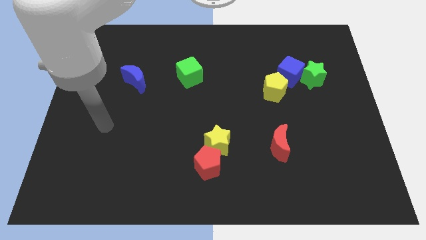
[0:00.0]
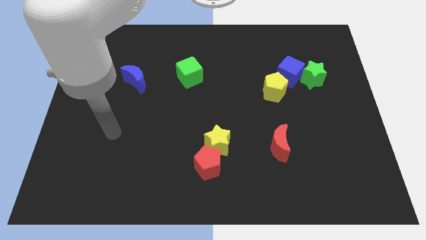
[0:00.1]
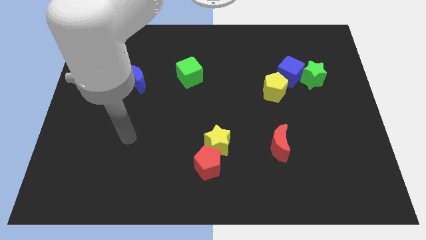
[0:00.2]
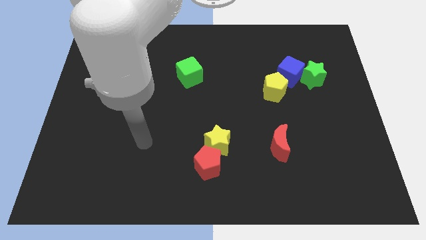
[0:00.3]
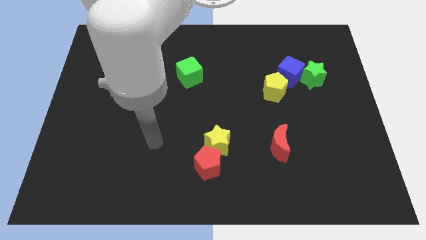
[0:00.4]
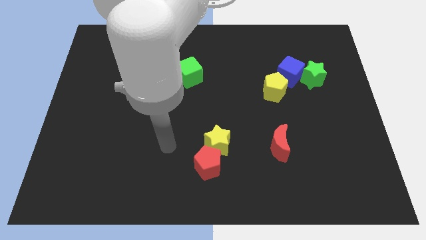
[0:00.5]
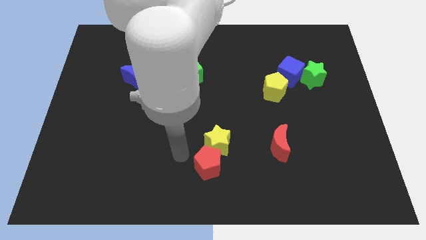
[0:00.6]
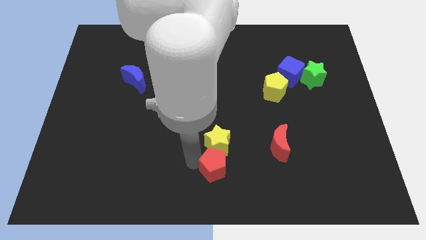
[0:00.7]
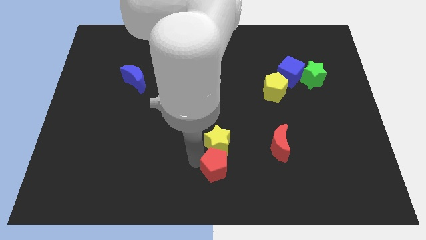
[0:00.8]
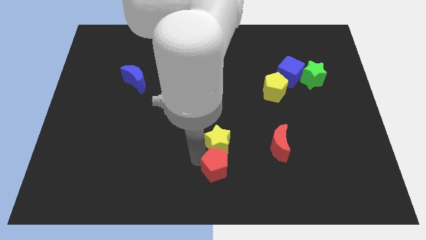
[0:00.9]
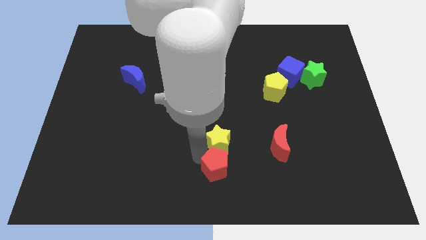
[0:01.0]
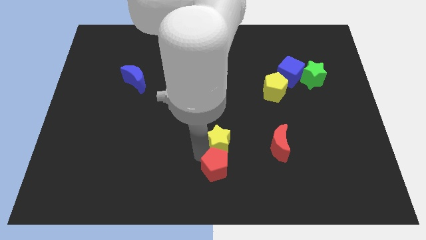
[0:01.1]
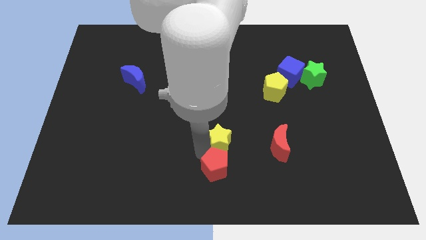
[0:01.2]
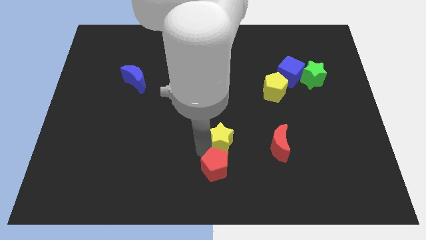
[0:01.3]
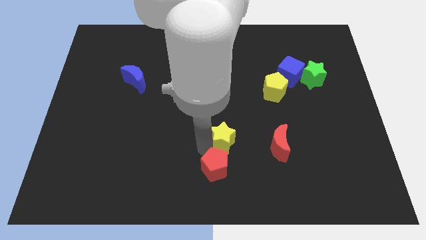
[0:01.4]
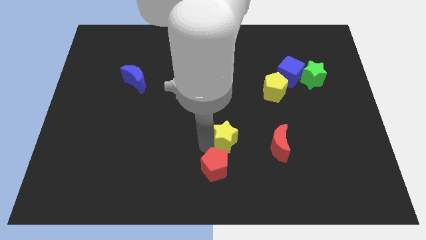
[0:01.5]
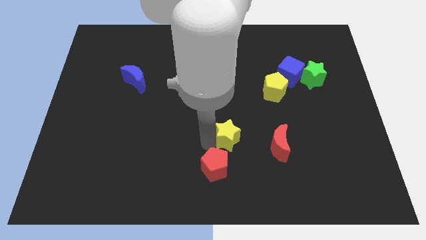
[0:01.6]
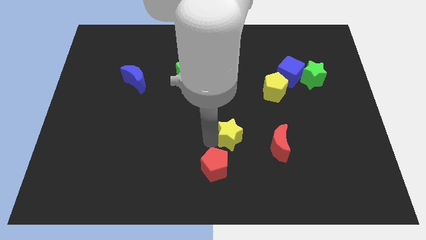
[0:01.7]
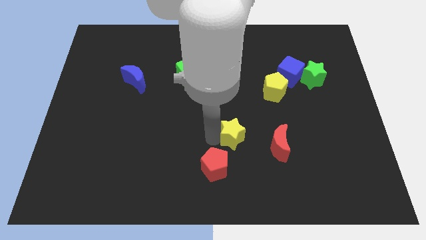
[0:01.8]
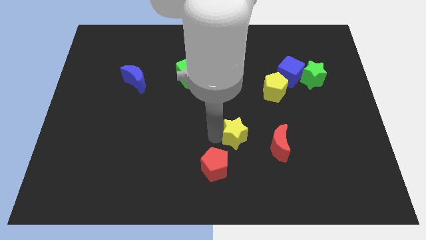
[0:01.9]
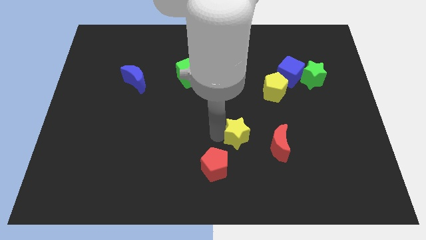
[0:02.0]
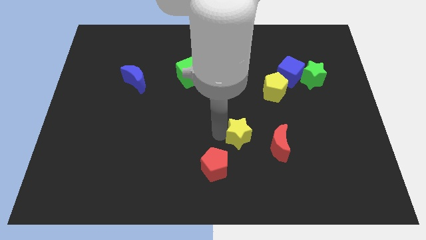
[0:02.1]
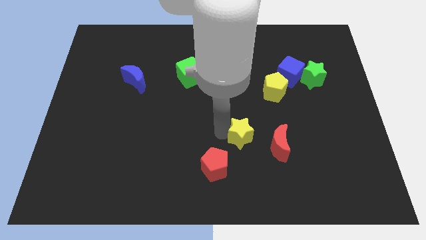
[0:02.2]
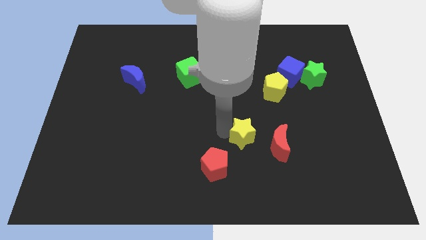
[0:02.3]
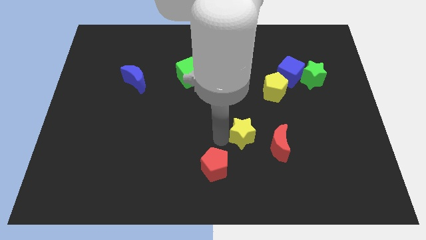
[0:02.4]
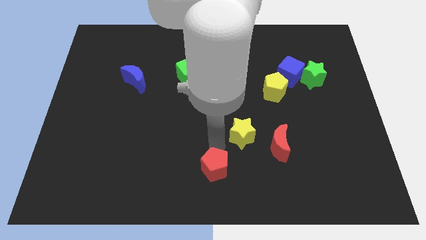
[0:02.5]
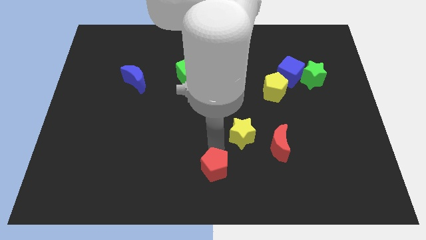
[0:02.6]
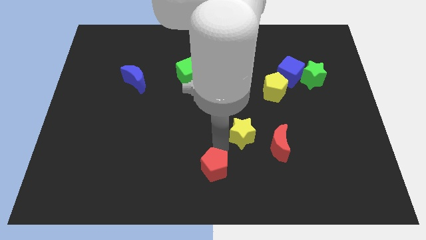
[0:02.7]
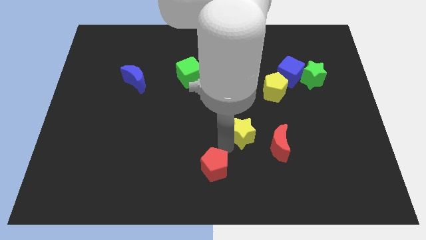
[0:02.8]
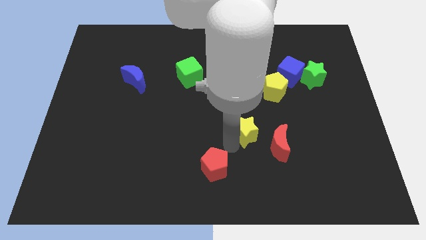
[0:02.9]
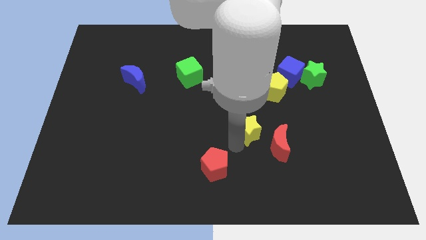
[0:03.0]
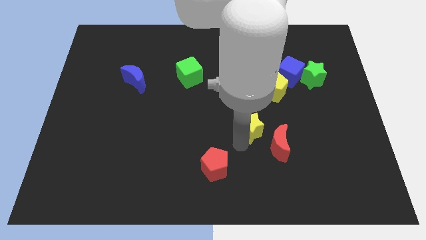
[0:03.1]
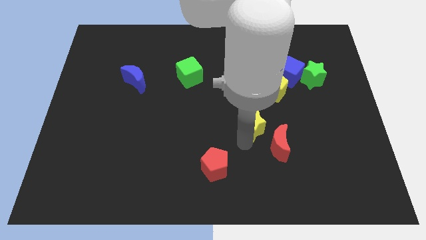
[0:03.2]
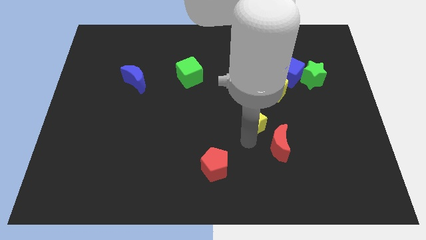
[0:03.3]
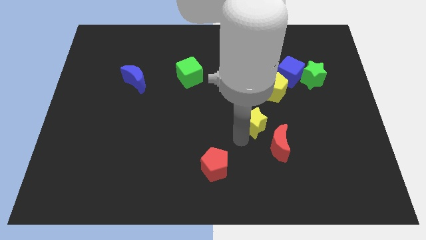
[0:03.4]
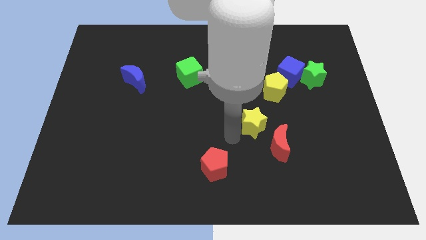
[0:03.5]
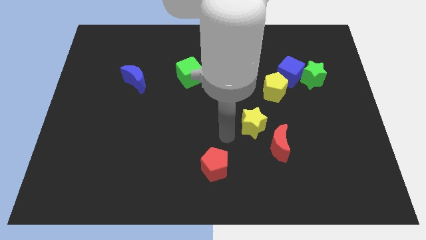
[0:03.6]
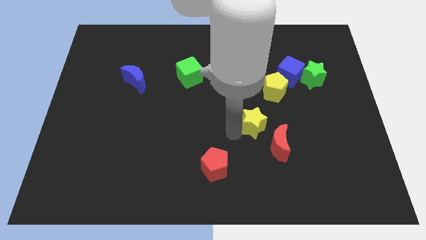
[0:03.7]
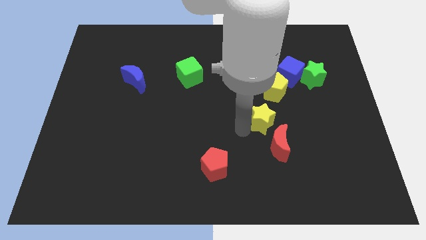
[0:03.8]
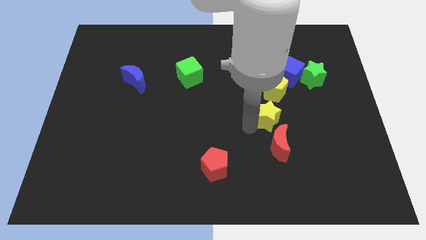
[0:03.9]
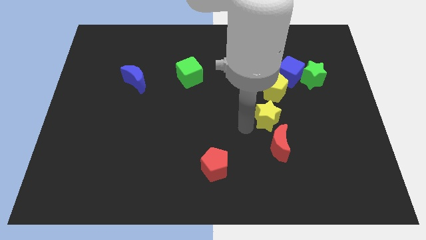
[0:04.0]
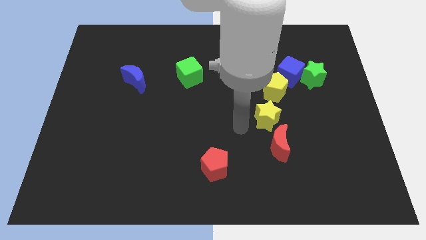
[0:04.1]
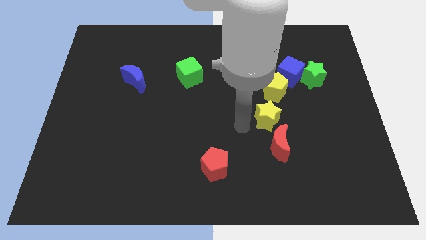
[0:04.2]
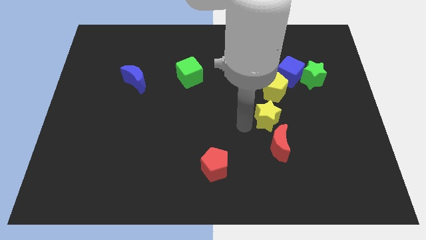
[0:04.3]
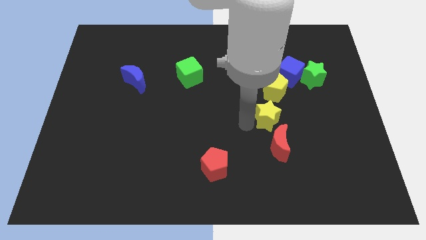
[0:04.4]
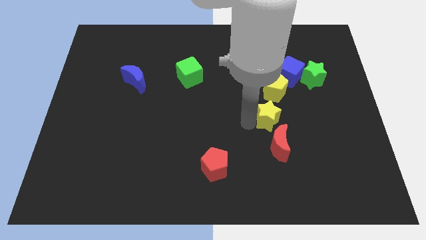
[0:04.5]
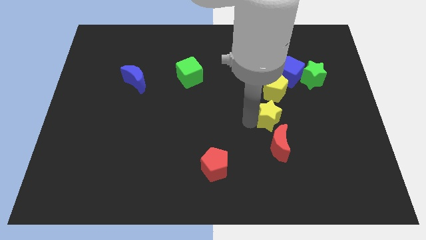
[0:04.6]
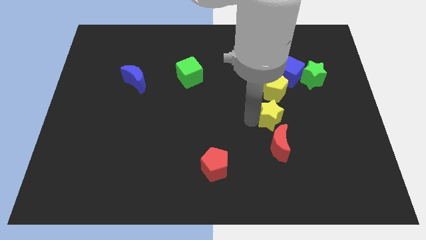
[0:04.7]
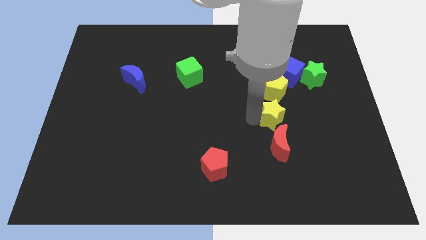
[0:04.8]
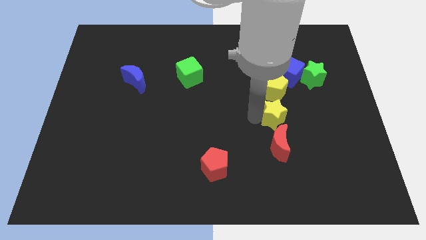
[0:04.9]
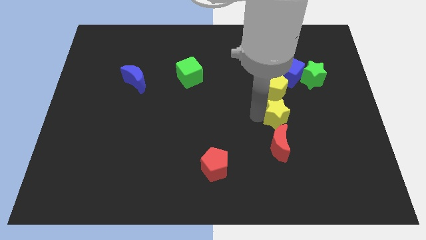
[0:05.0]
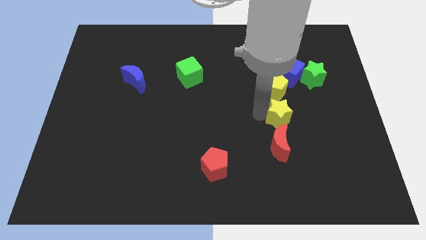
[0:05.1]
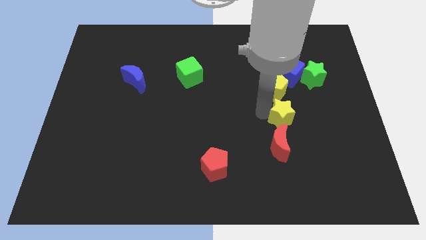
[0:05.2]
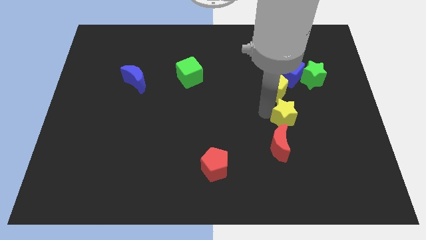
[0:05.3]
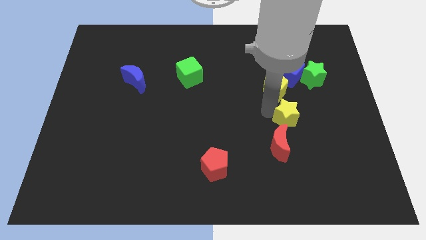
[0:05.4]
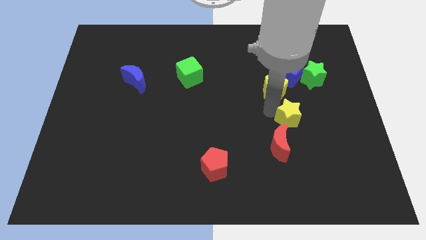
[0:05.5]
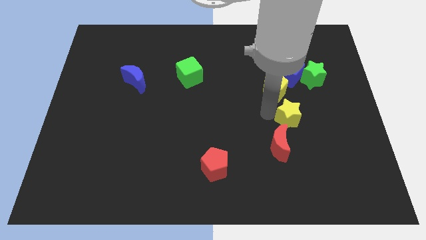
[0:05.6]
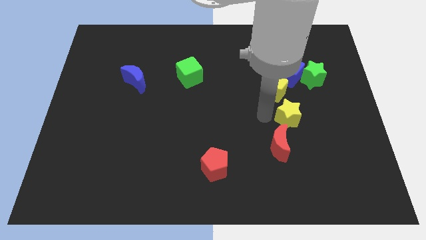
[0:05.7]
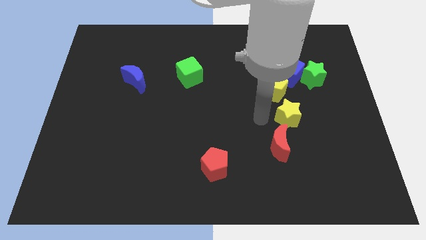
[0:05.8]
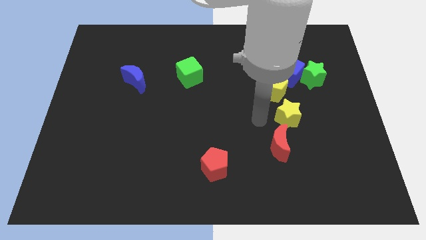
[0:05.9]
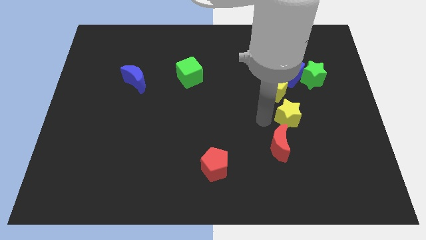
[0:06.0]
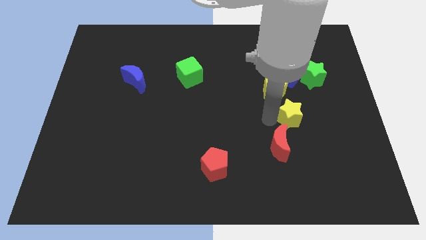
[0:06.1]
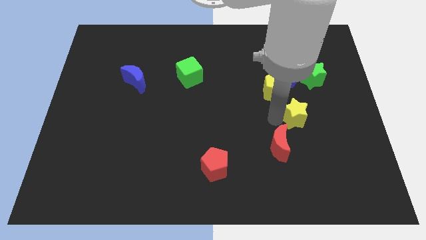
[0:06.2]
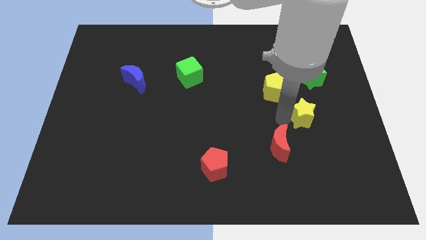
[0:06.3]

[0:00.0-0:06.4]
push the yellow star below the green star

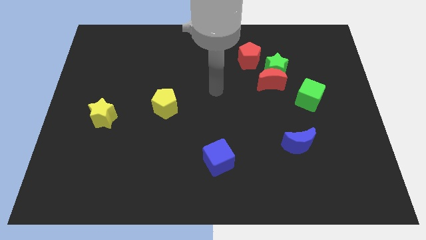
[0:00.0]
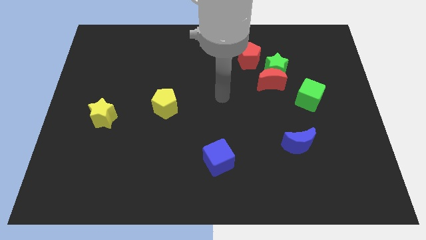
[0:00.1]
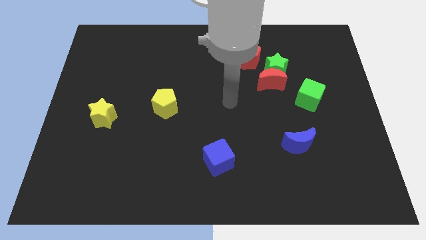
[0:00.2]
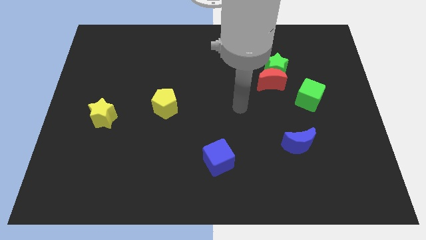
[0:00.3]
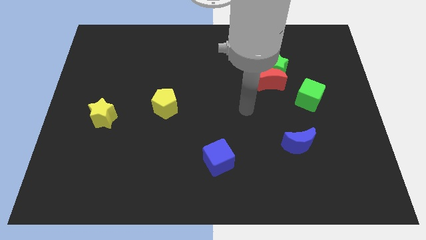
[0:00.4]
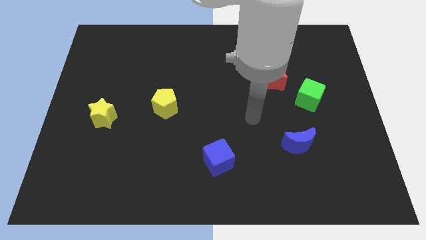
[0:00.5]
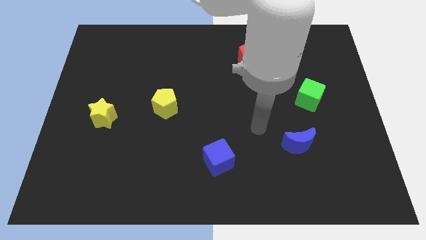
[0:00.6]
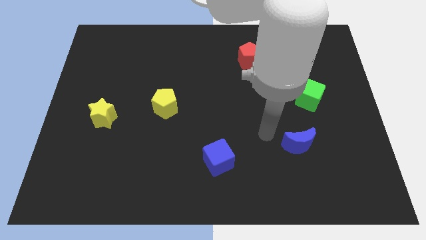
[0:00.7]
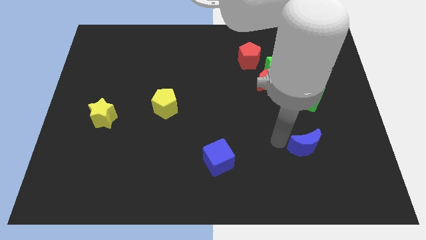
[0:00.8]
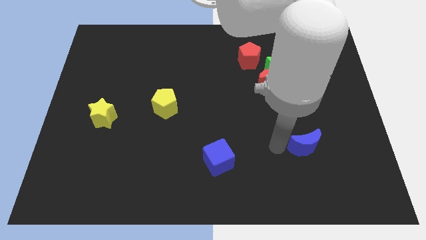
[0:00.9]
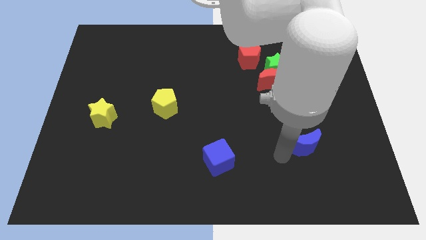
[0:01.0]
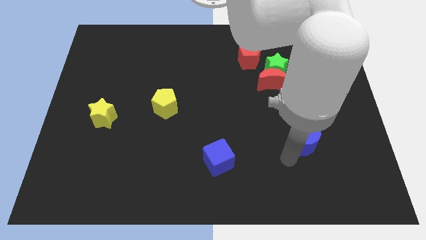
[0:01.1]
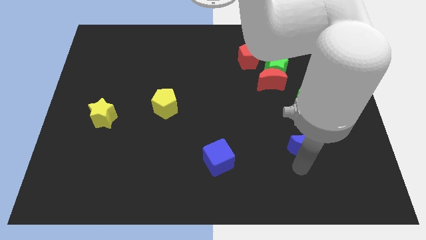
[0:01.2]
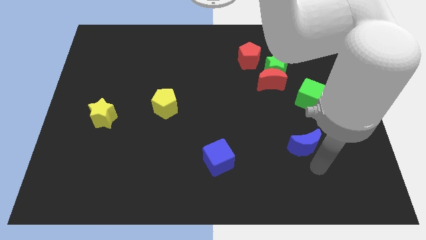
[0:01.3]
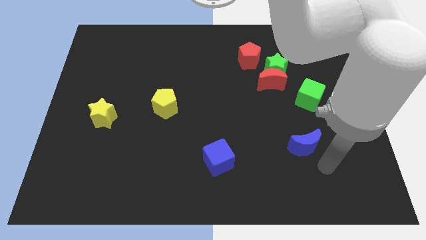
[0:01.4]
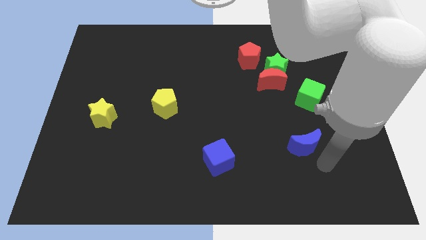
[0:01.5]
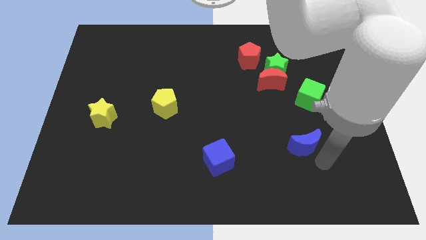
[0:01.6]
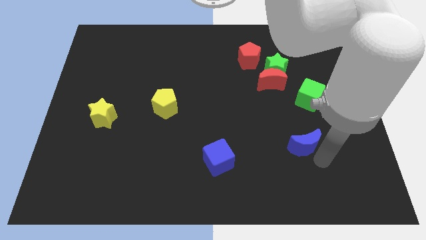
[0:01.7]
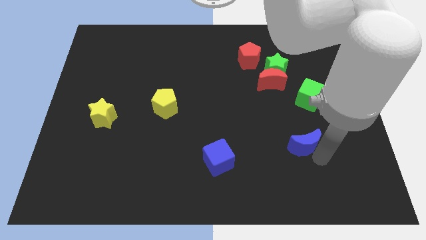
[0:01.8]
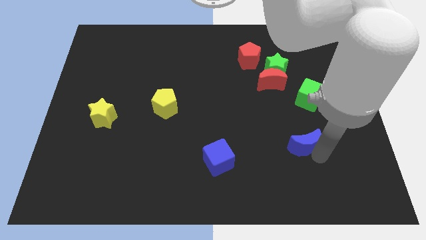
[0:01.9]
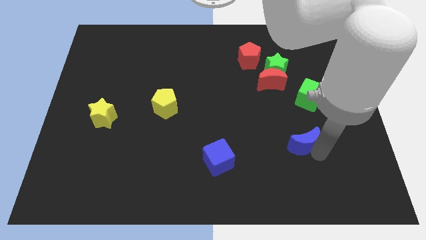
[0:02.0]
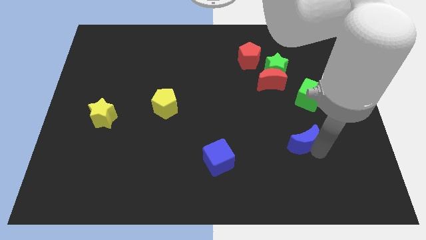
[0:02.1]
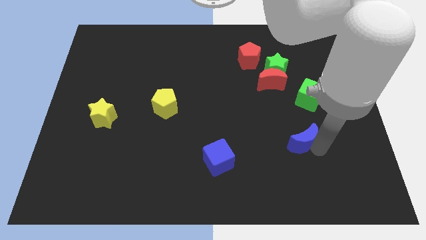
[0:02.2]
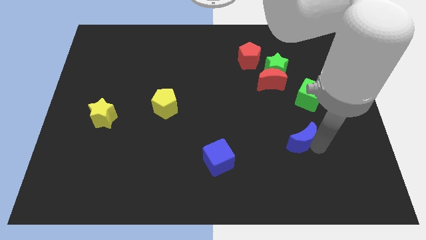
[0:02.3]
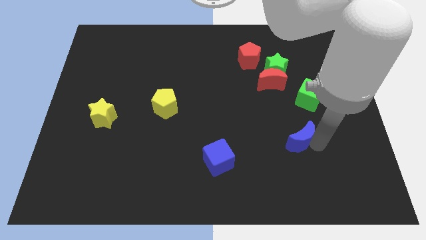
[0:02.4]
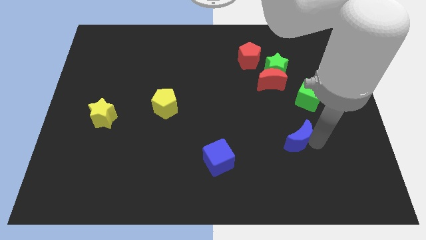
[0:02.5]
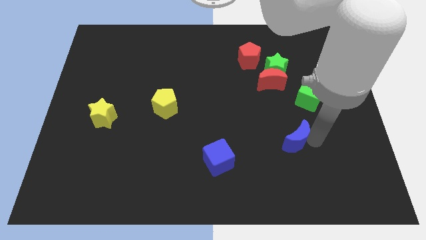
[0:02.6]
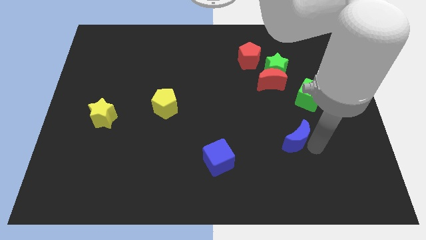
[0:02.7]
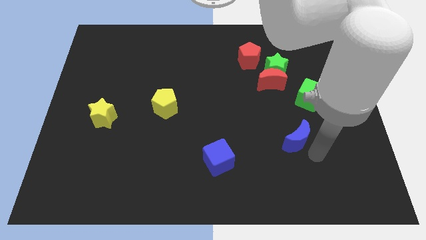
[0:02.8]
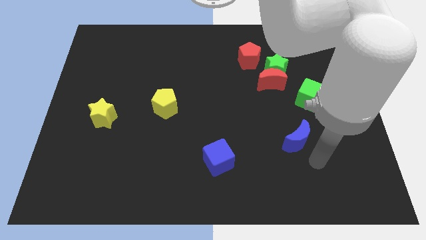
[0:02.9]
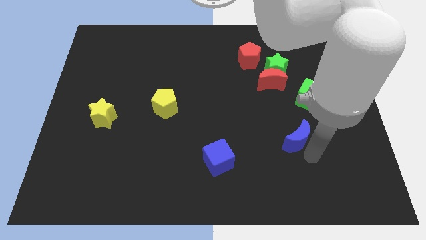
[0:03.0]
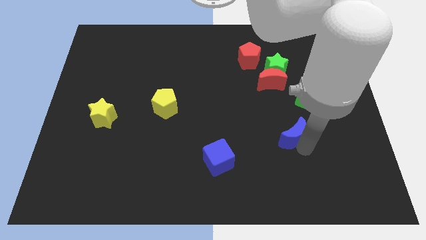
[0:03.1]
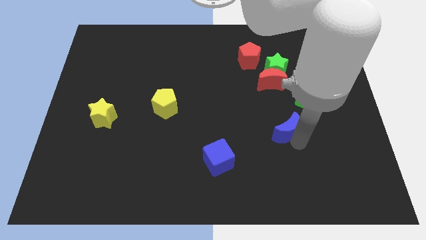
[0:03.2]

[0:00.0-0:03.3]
slide the blue moon below the red moon
